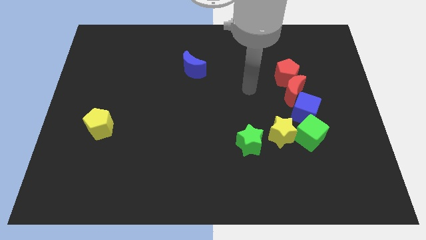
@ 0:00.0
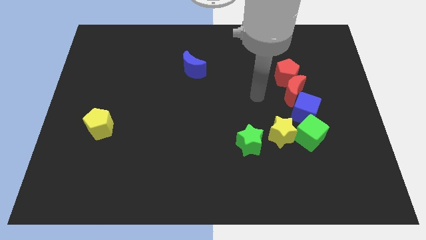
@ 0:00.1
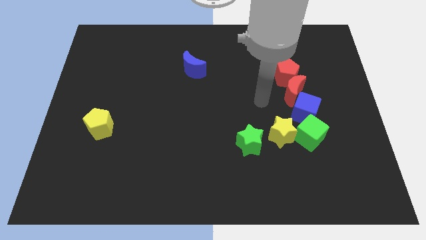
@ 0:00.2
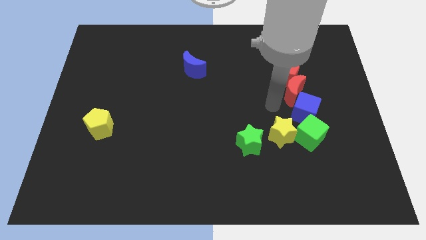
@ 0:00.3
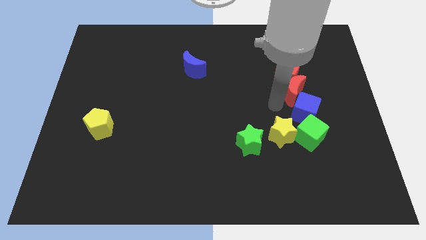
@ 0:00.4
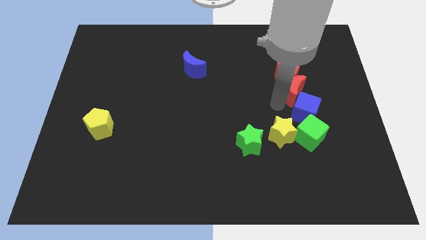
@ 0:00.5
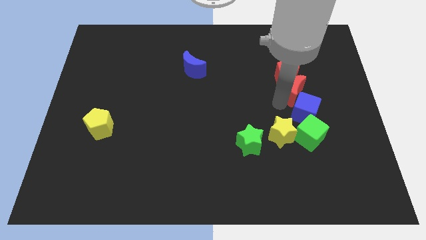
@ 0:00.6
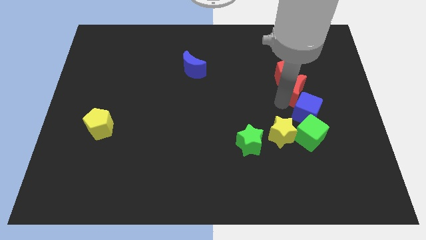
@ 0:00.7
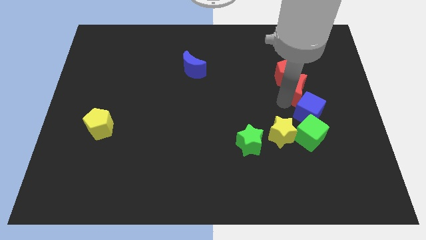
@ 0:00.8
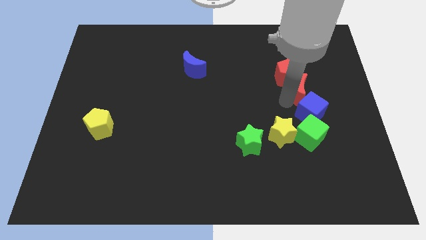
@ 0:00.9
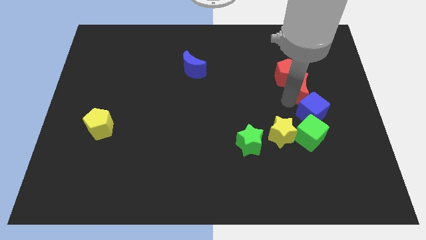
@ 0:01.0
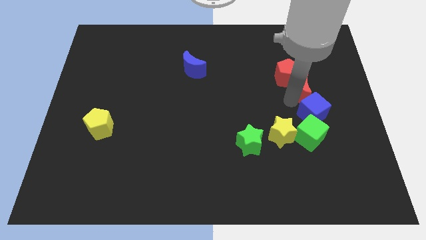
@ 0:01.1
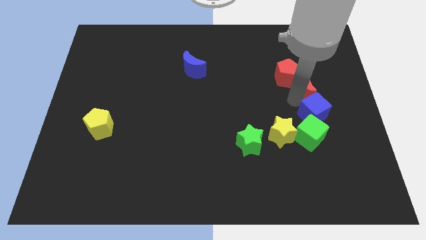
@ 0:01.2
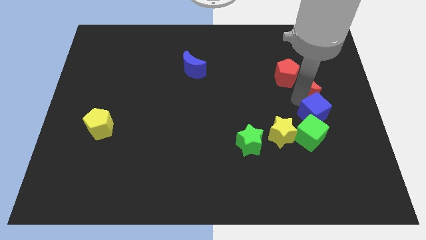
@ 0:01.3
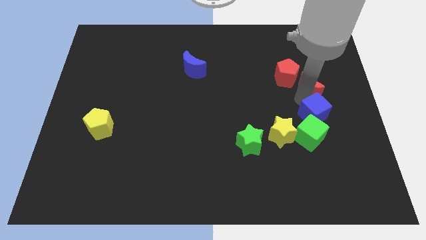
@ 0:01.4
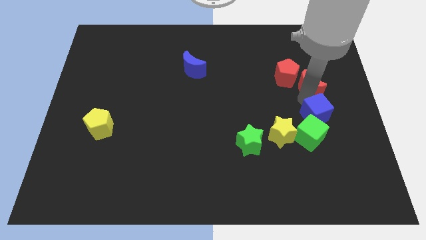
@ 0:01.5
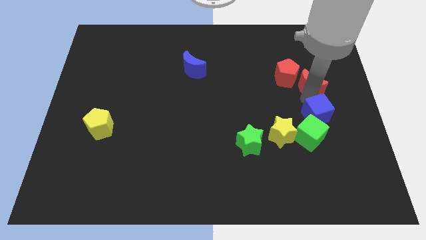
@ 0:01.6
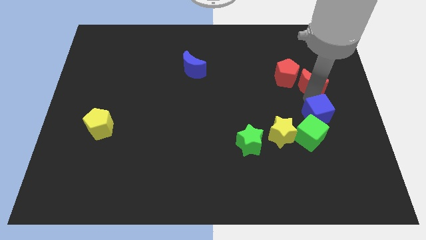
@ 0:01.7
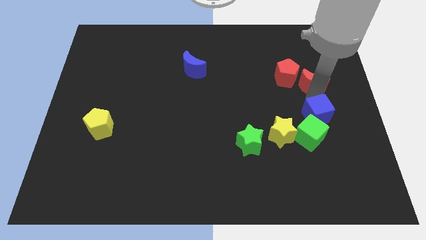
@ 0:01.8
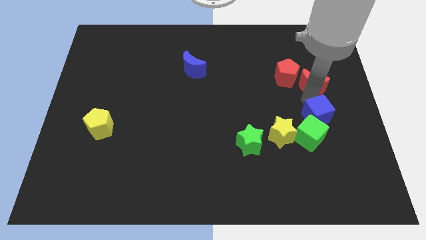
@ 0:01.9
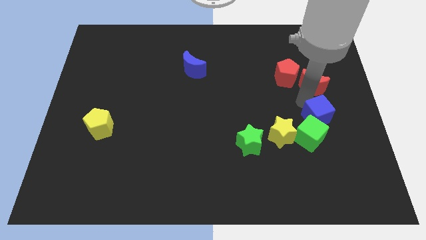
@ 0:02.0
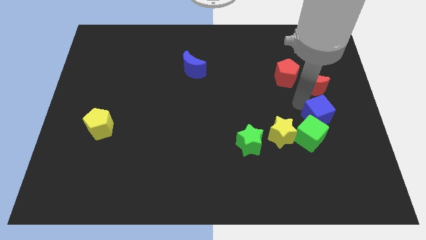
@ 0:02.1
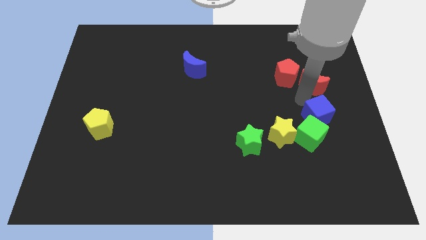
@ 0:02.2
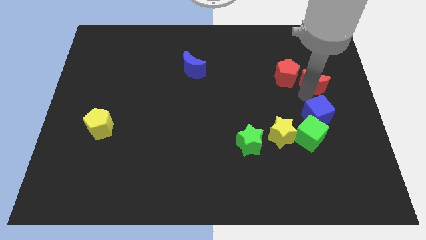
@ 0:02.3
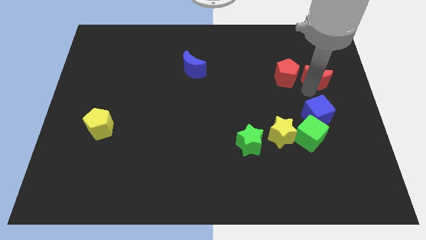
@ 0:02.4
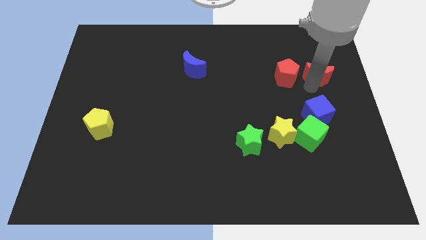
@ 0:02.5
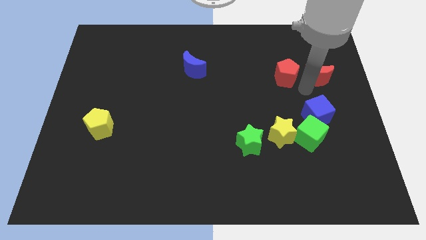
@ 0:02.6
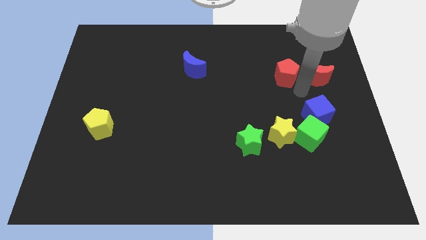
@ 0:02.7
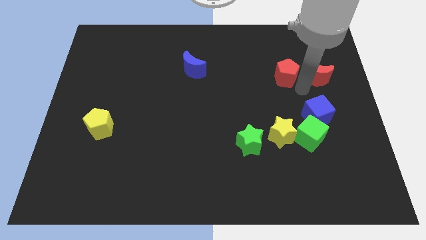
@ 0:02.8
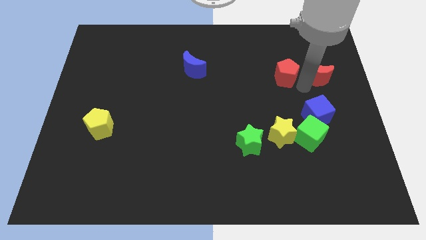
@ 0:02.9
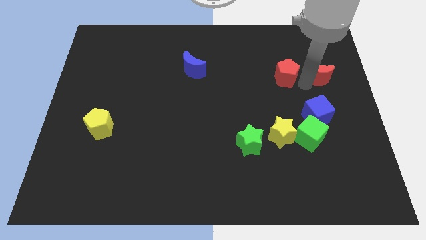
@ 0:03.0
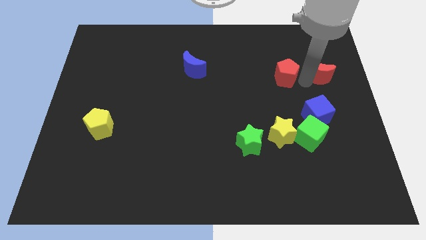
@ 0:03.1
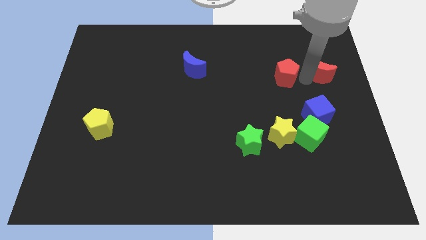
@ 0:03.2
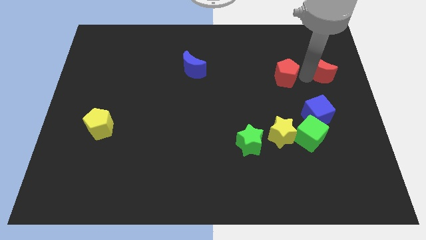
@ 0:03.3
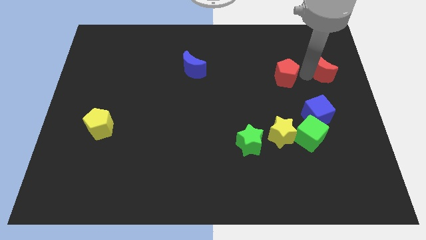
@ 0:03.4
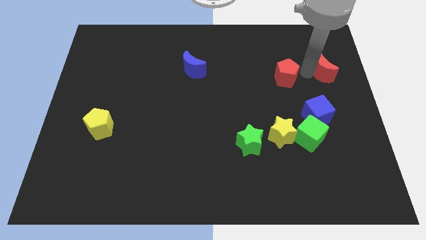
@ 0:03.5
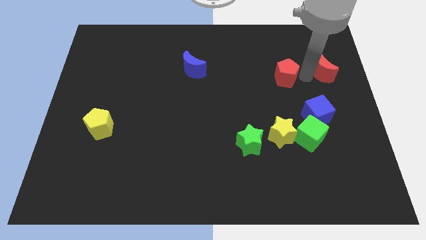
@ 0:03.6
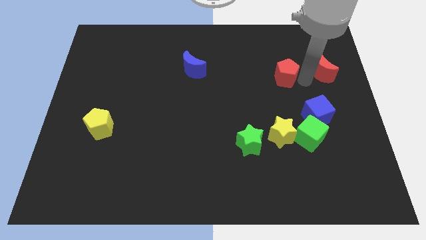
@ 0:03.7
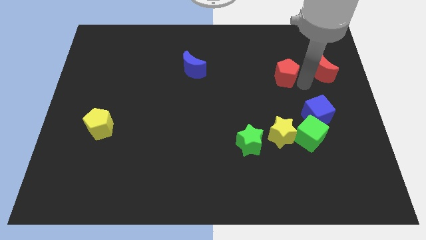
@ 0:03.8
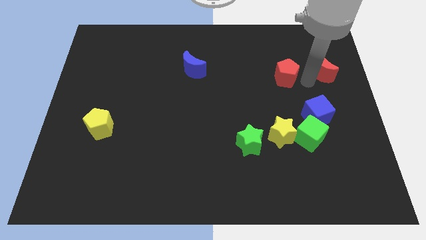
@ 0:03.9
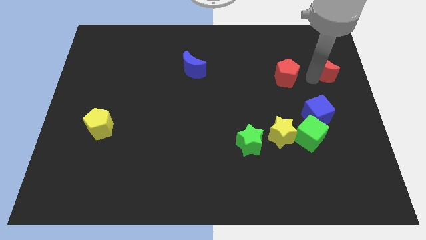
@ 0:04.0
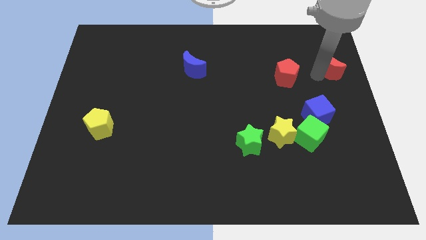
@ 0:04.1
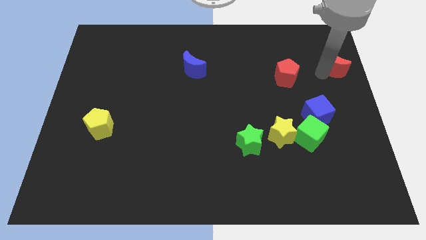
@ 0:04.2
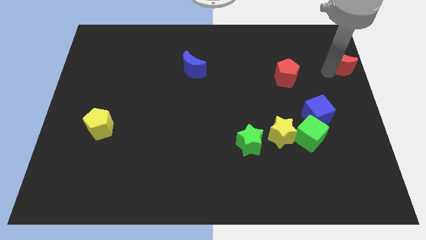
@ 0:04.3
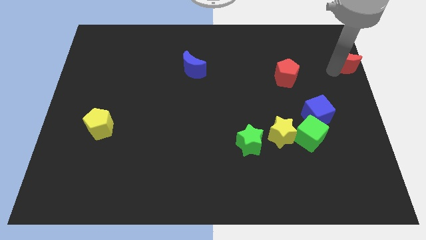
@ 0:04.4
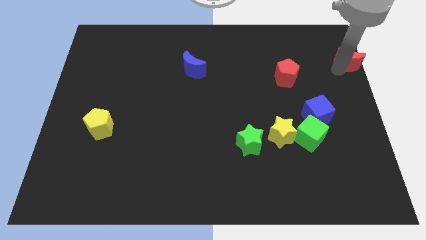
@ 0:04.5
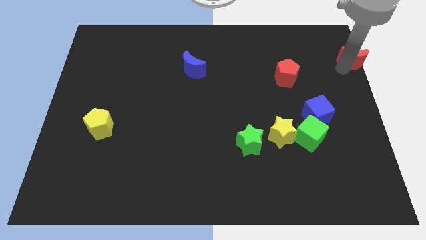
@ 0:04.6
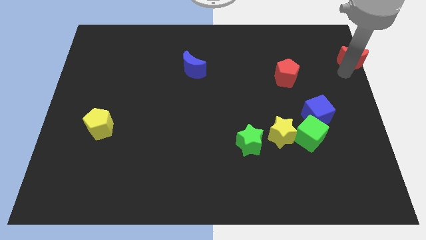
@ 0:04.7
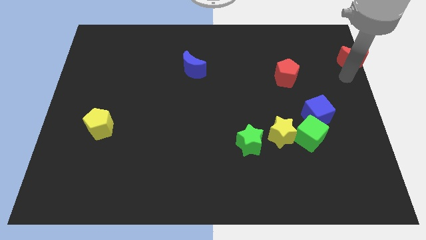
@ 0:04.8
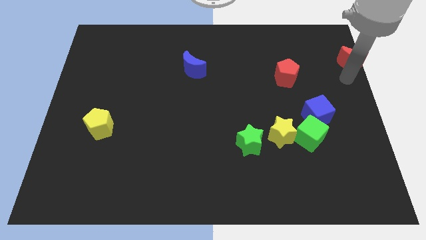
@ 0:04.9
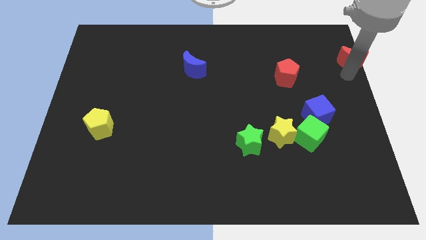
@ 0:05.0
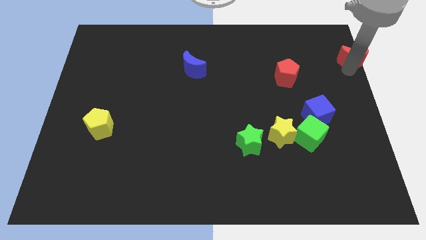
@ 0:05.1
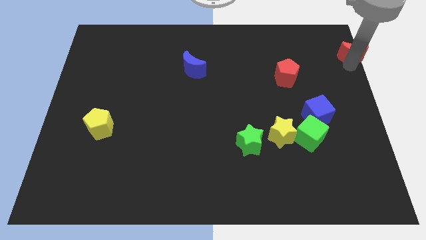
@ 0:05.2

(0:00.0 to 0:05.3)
push the red moon to the top right of the board
